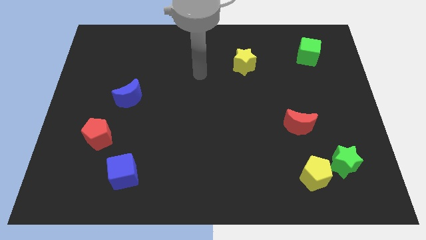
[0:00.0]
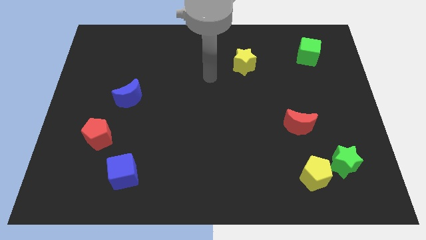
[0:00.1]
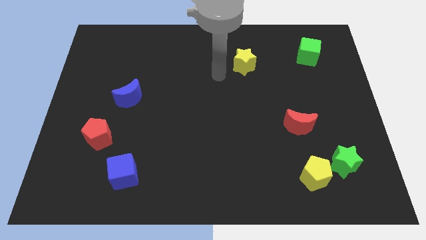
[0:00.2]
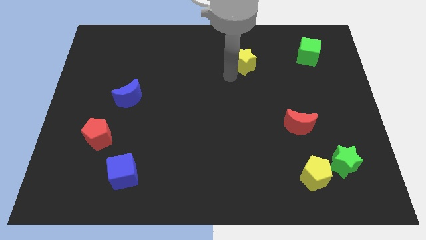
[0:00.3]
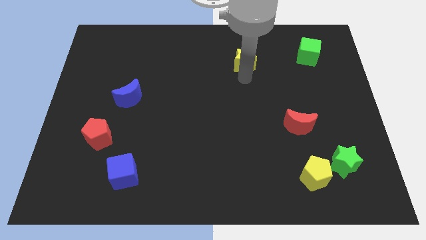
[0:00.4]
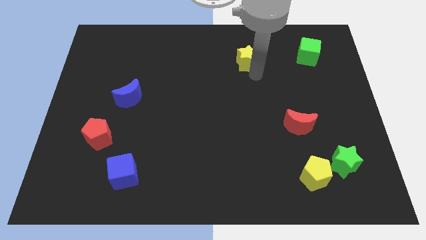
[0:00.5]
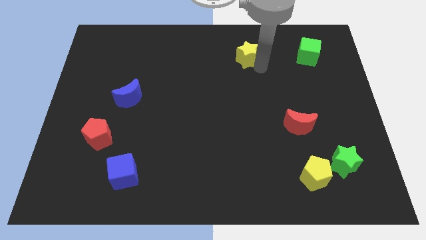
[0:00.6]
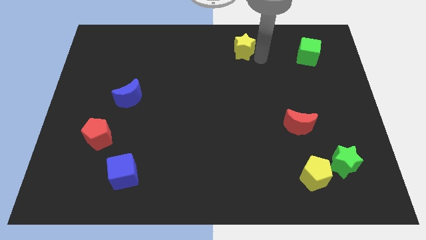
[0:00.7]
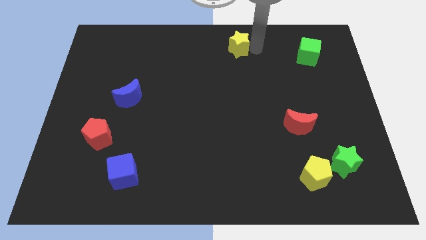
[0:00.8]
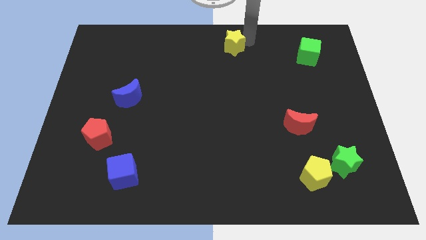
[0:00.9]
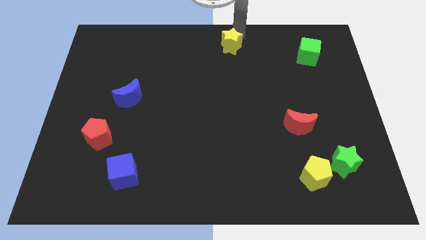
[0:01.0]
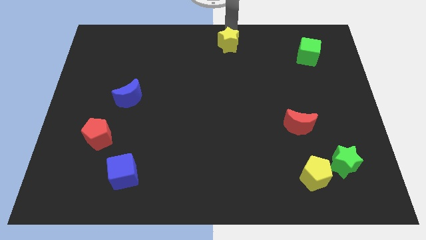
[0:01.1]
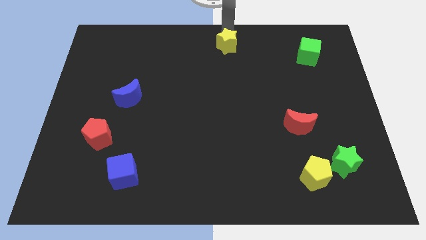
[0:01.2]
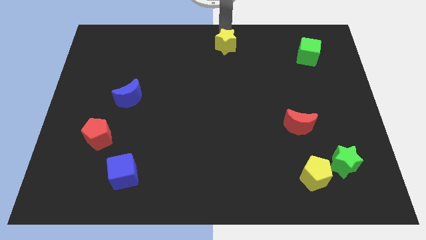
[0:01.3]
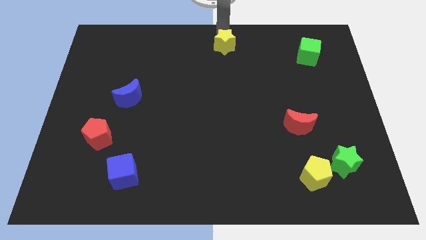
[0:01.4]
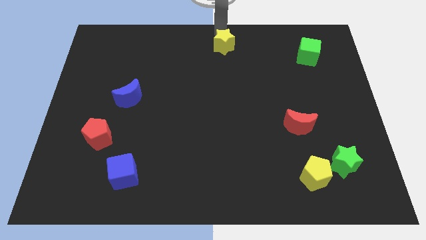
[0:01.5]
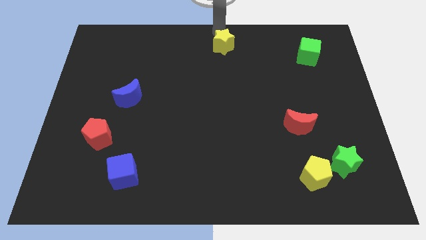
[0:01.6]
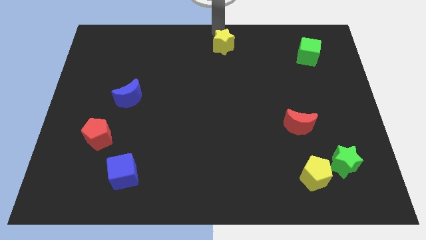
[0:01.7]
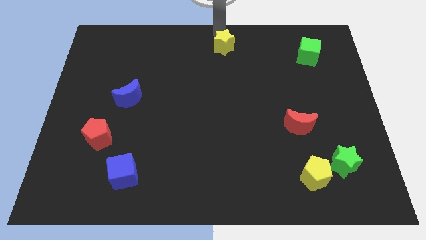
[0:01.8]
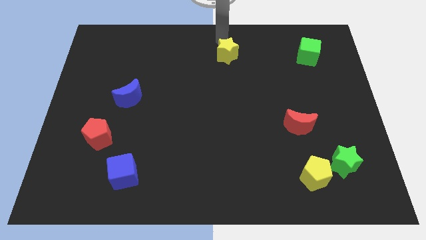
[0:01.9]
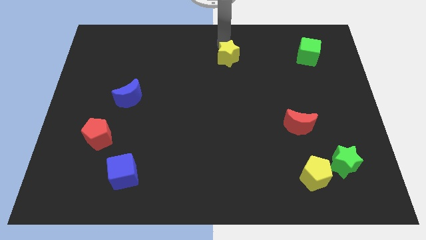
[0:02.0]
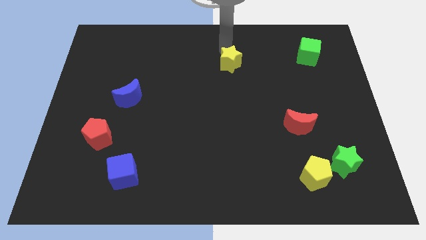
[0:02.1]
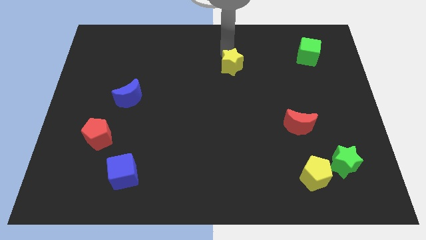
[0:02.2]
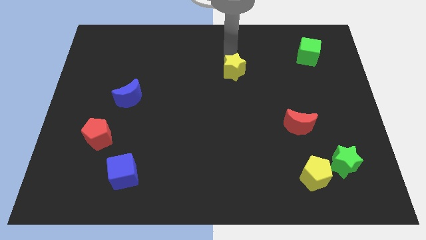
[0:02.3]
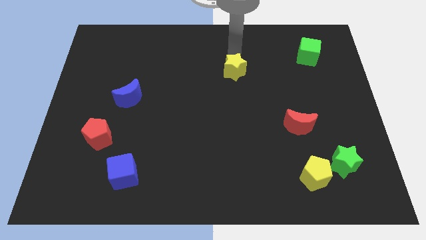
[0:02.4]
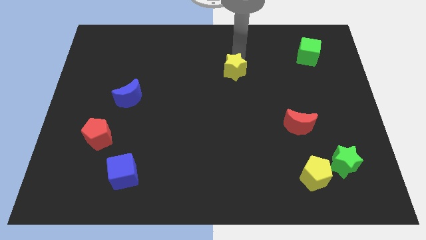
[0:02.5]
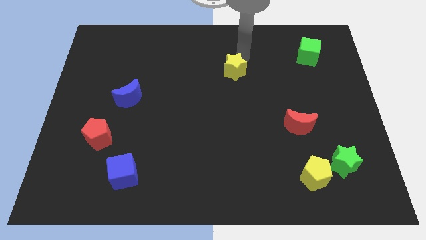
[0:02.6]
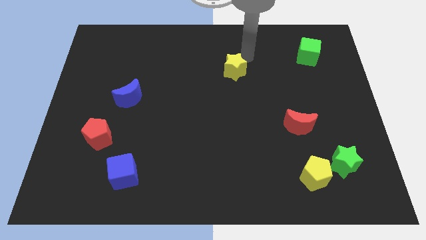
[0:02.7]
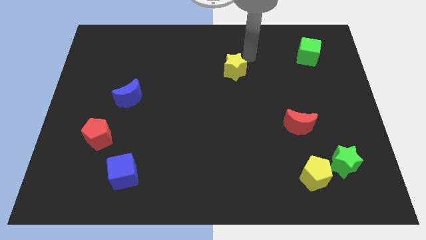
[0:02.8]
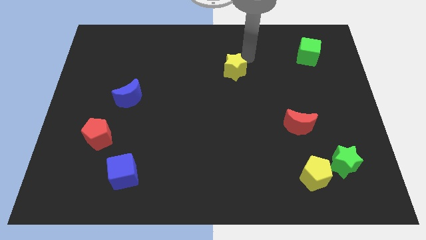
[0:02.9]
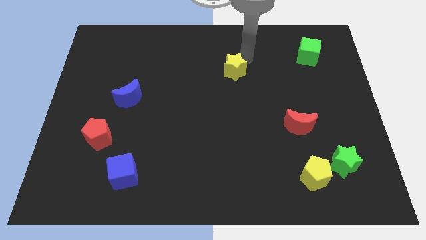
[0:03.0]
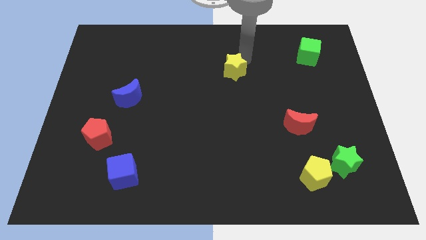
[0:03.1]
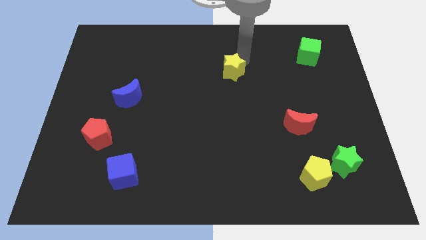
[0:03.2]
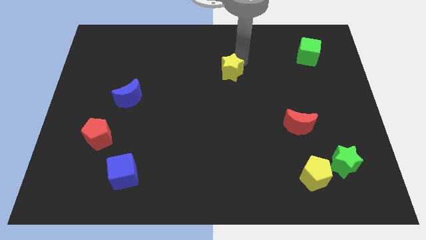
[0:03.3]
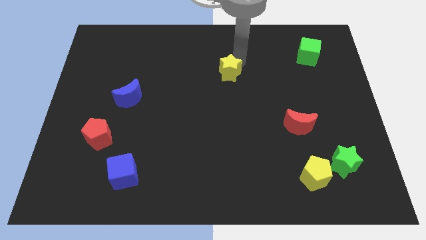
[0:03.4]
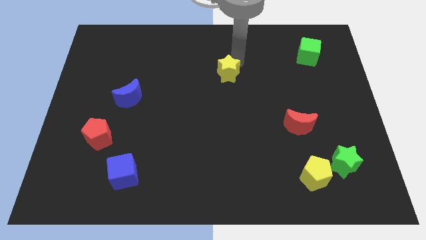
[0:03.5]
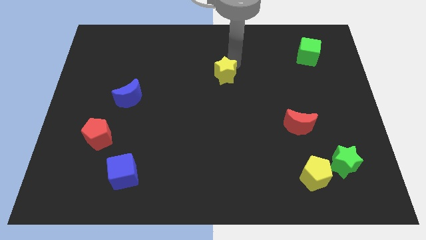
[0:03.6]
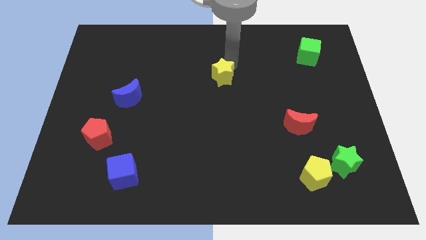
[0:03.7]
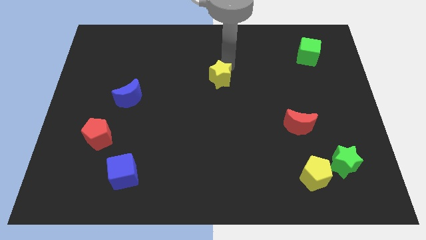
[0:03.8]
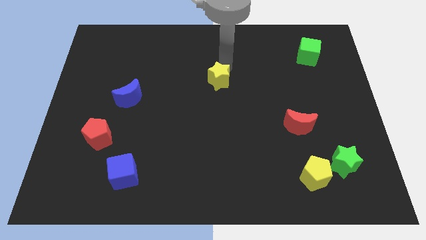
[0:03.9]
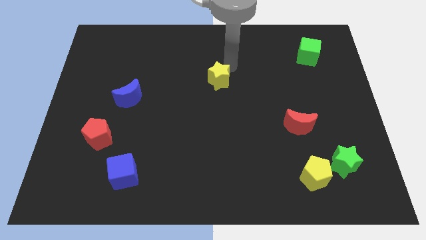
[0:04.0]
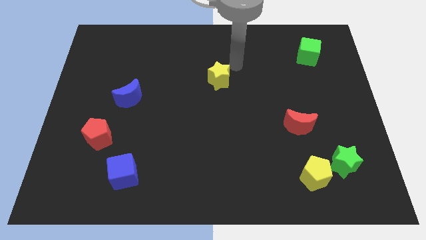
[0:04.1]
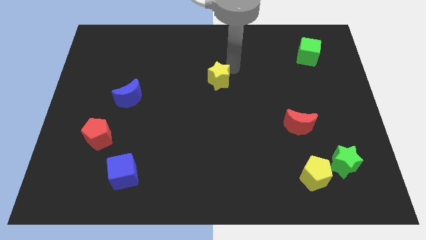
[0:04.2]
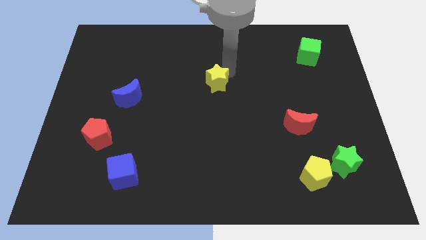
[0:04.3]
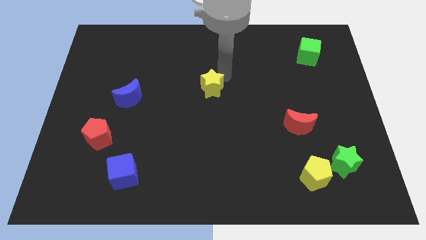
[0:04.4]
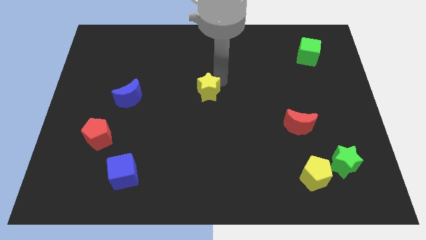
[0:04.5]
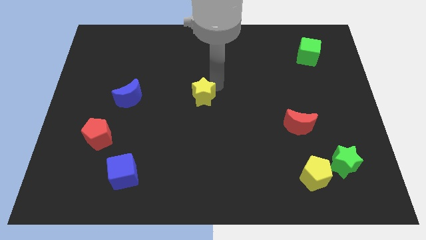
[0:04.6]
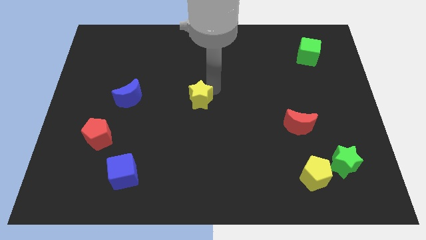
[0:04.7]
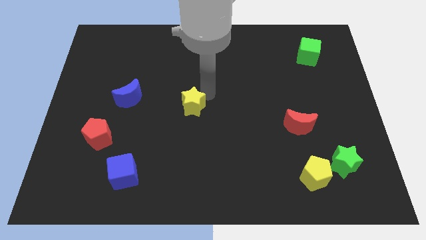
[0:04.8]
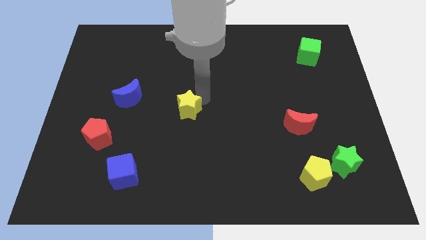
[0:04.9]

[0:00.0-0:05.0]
push the yellow star downwards and to the left

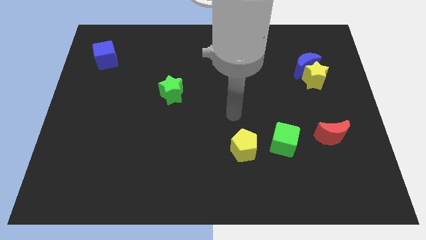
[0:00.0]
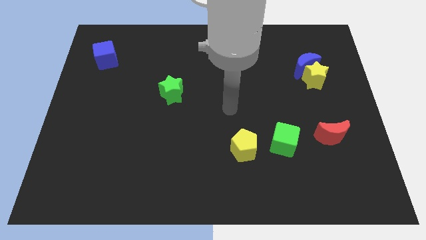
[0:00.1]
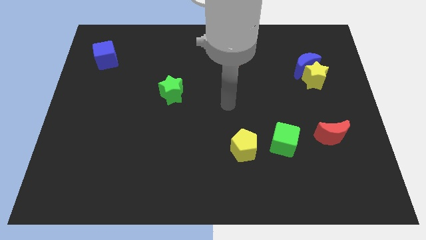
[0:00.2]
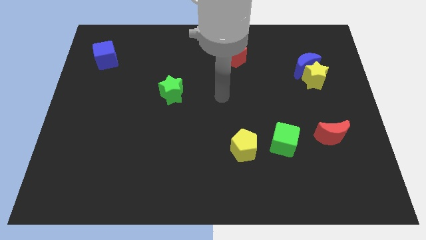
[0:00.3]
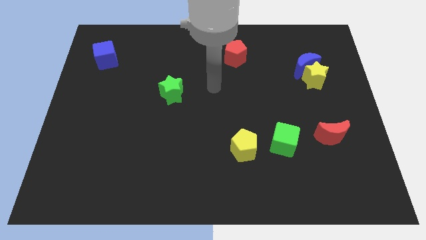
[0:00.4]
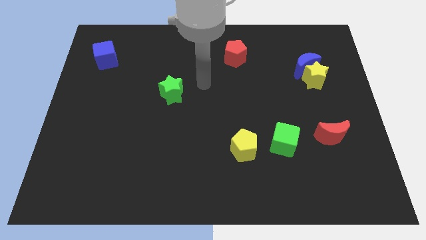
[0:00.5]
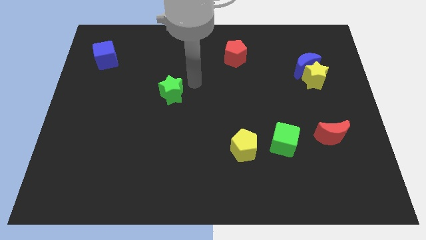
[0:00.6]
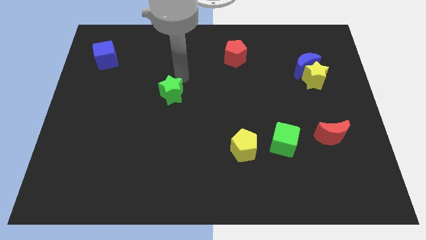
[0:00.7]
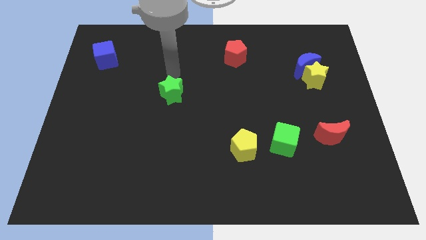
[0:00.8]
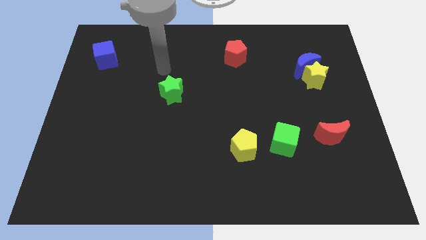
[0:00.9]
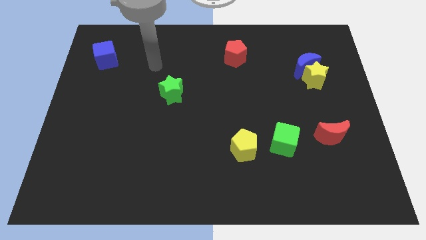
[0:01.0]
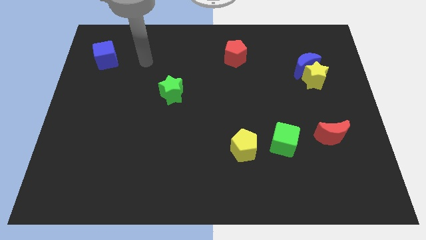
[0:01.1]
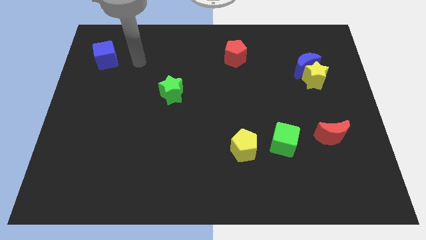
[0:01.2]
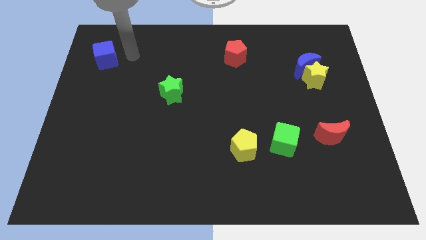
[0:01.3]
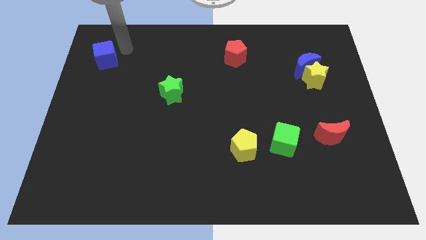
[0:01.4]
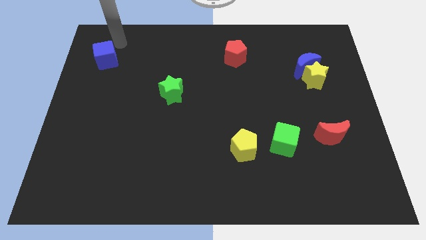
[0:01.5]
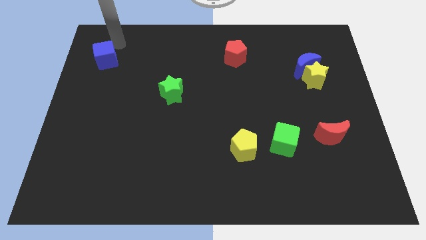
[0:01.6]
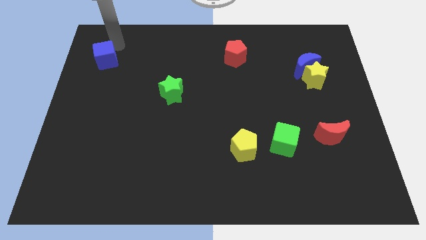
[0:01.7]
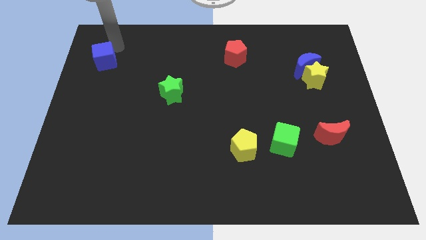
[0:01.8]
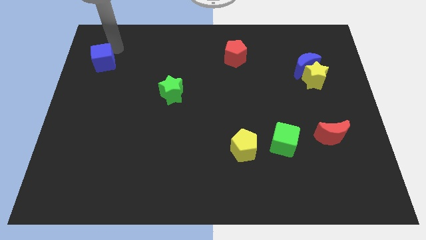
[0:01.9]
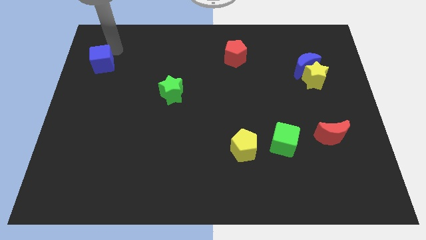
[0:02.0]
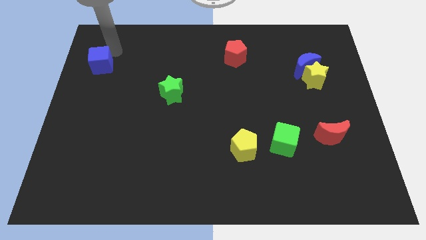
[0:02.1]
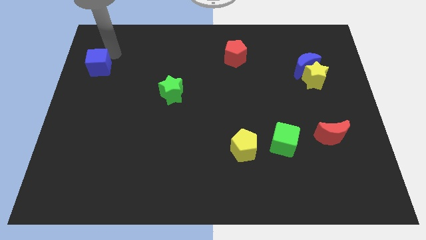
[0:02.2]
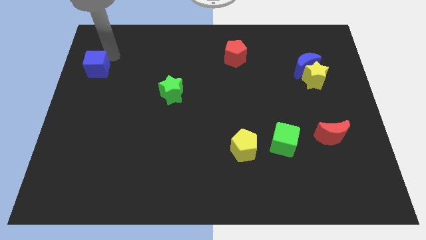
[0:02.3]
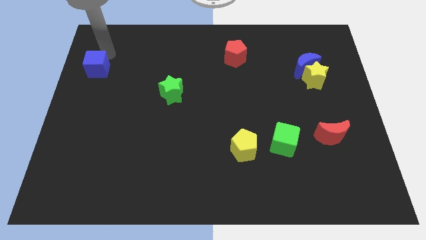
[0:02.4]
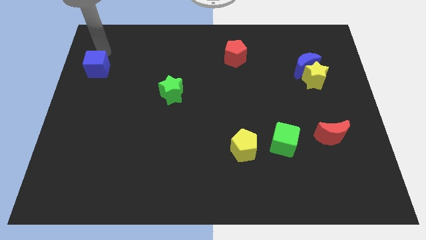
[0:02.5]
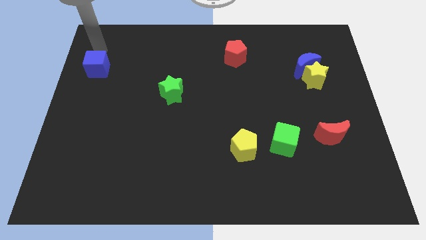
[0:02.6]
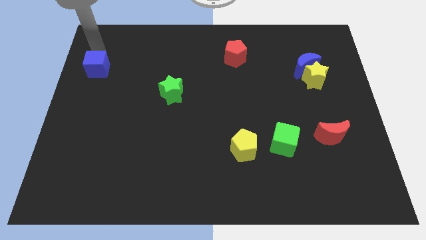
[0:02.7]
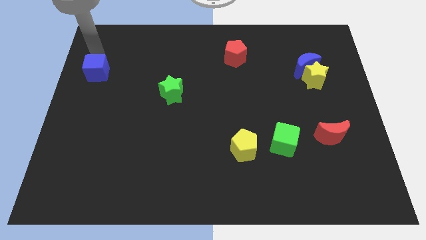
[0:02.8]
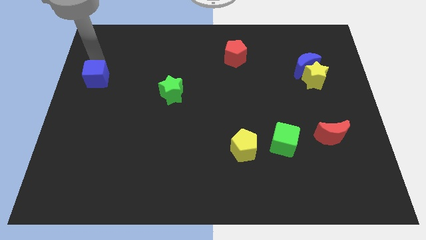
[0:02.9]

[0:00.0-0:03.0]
slightly move the blue cube down
